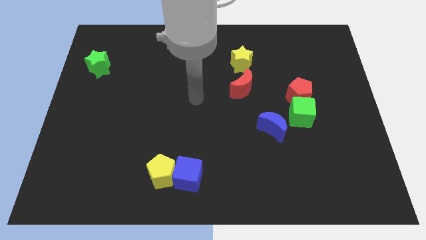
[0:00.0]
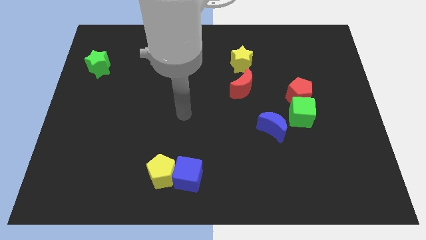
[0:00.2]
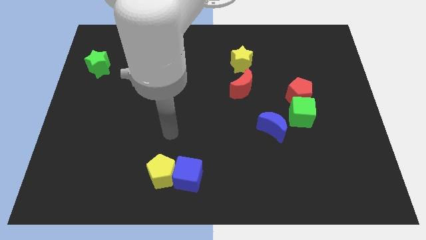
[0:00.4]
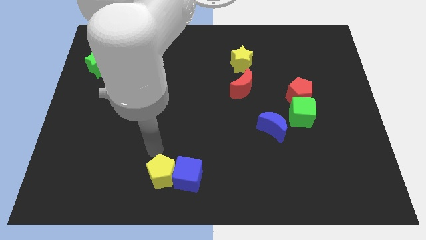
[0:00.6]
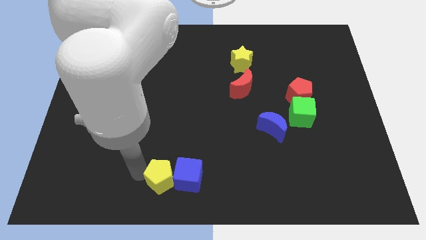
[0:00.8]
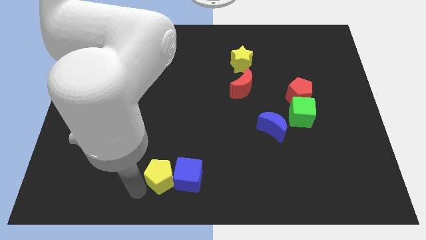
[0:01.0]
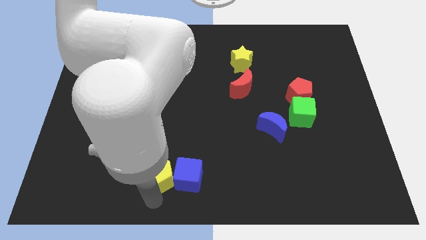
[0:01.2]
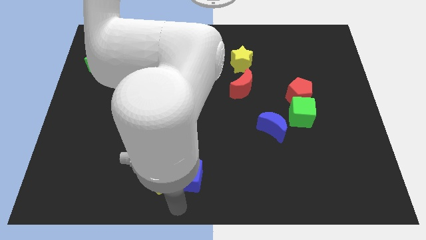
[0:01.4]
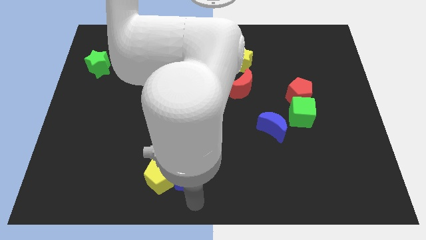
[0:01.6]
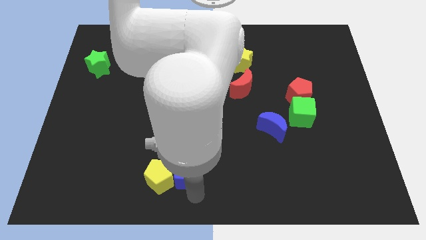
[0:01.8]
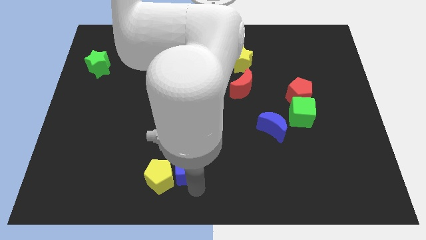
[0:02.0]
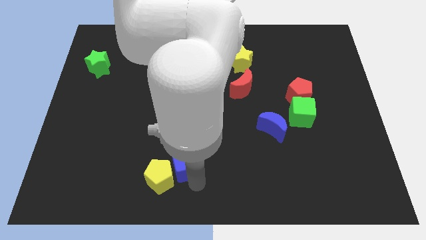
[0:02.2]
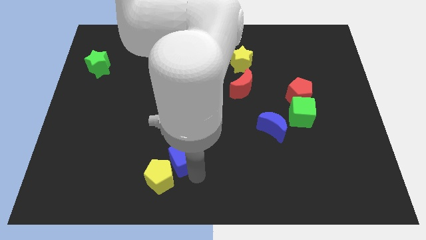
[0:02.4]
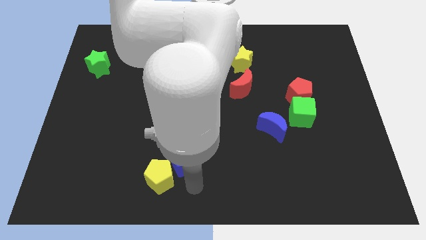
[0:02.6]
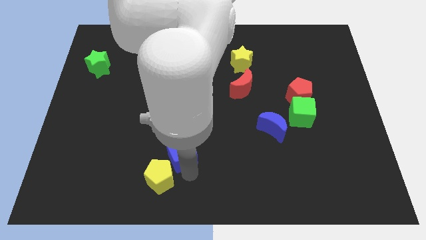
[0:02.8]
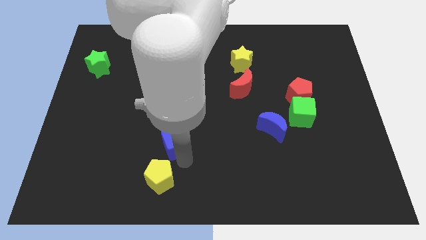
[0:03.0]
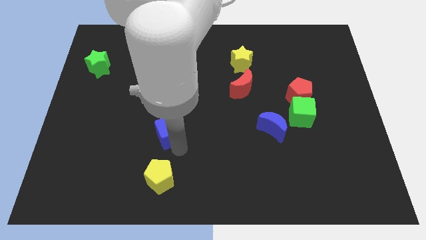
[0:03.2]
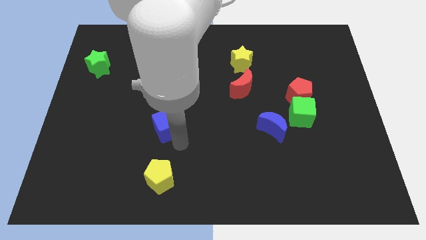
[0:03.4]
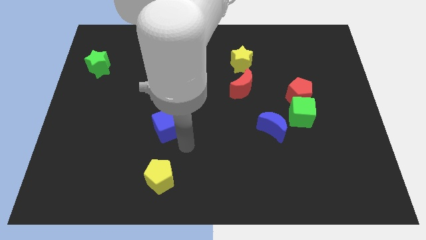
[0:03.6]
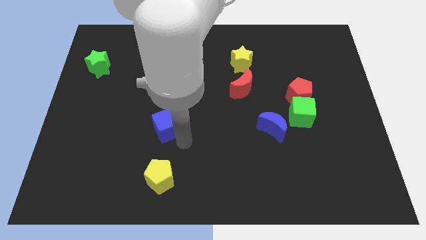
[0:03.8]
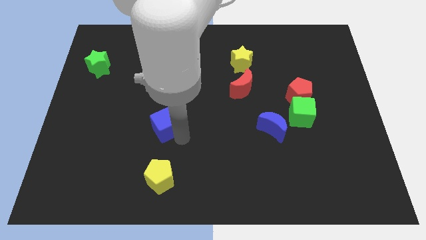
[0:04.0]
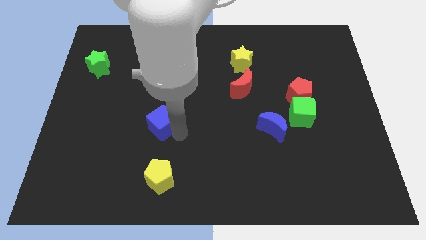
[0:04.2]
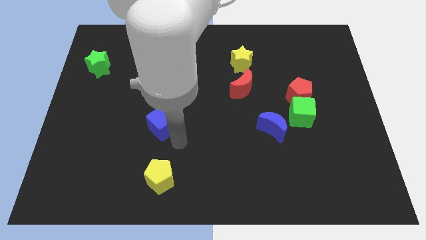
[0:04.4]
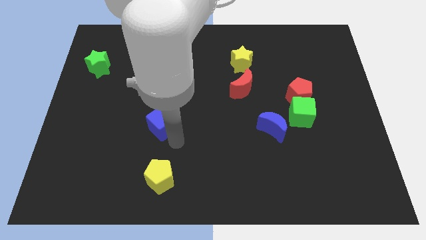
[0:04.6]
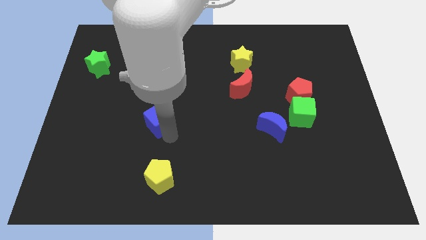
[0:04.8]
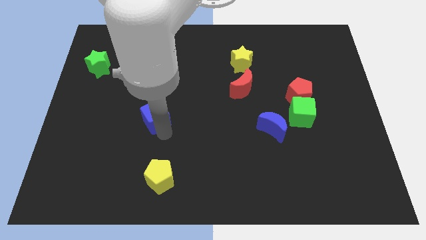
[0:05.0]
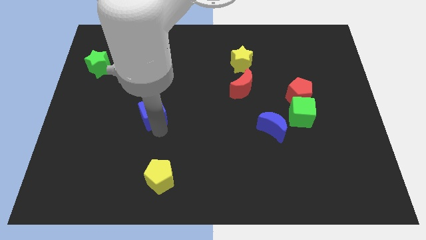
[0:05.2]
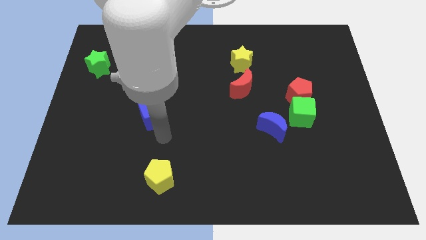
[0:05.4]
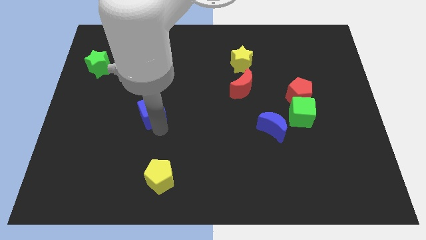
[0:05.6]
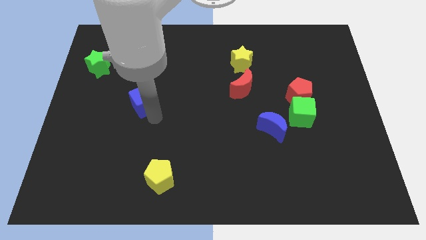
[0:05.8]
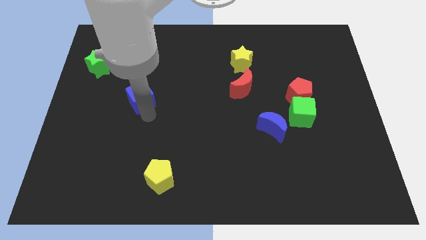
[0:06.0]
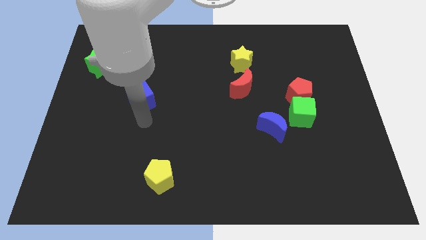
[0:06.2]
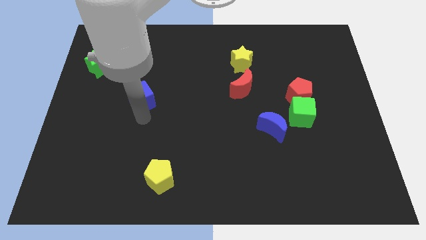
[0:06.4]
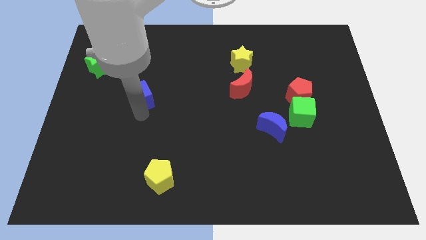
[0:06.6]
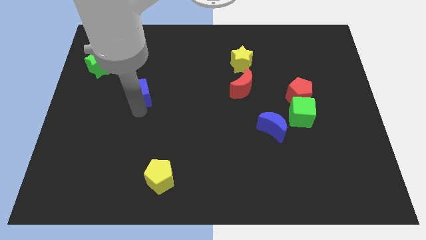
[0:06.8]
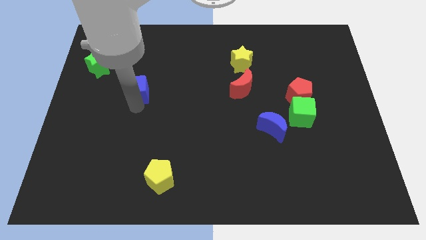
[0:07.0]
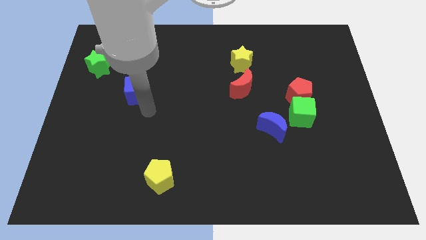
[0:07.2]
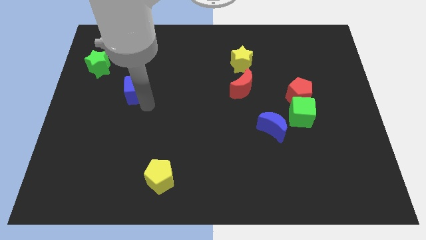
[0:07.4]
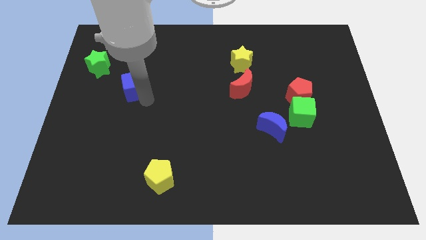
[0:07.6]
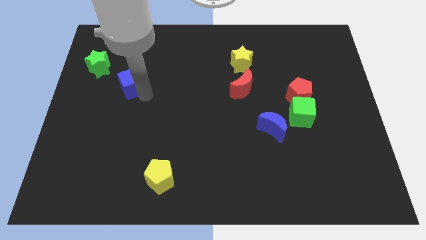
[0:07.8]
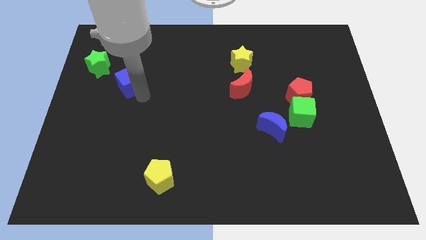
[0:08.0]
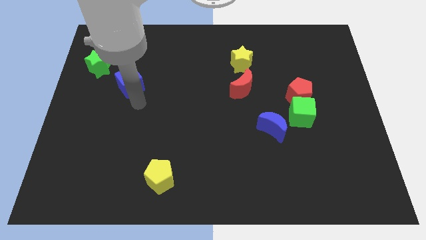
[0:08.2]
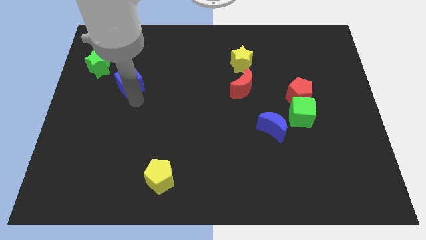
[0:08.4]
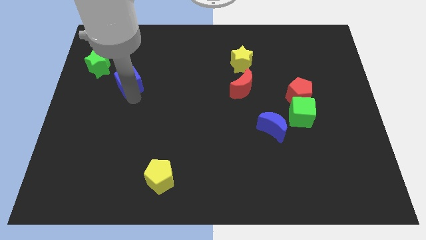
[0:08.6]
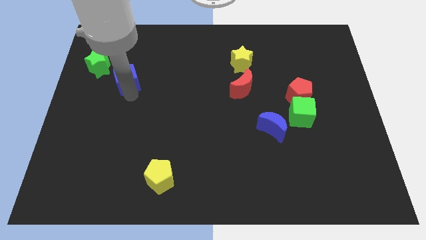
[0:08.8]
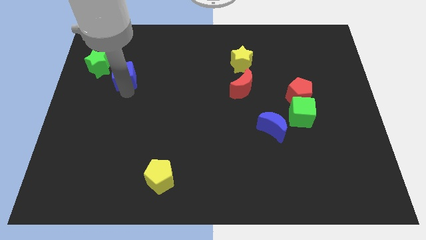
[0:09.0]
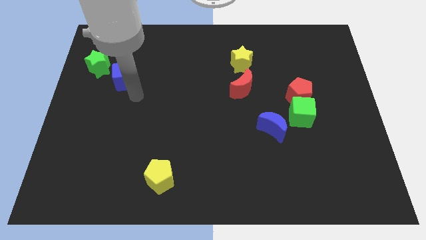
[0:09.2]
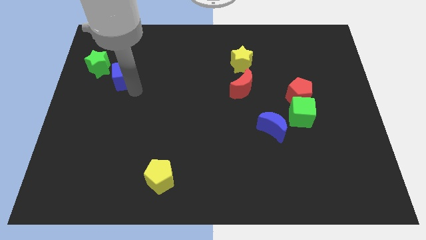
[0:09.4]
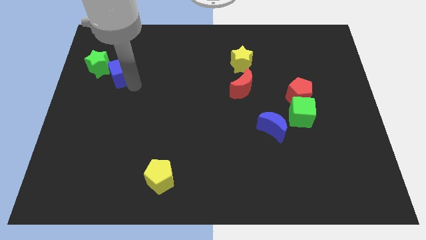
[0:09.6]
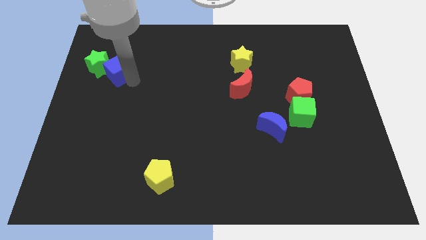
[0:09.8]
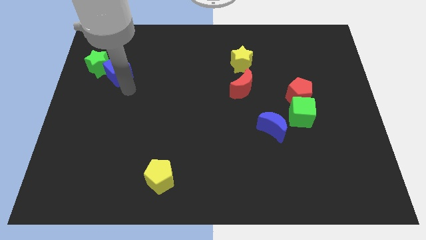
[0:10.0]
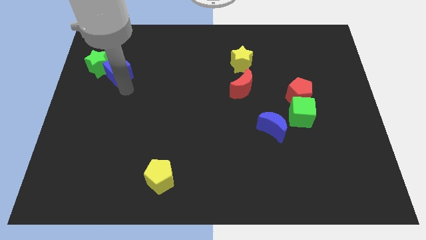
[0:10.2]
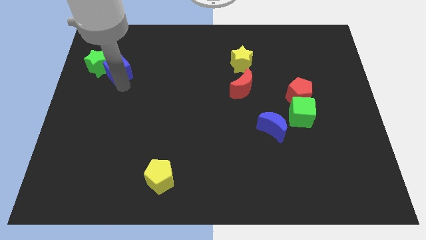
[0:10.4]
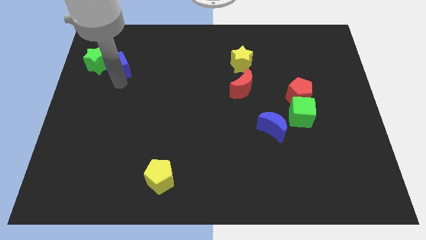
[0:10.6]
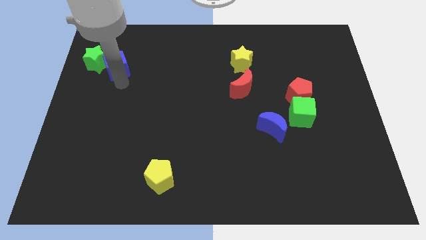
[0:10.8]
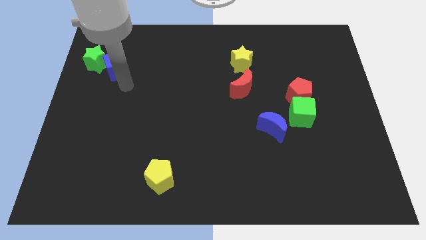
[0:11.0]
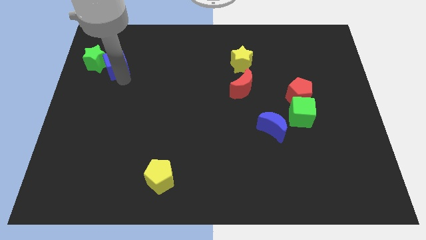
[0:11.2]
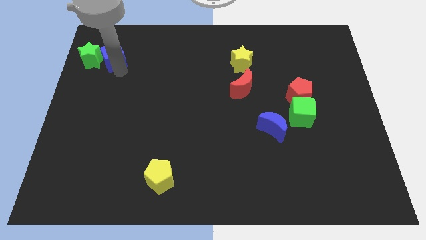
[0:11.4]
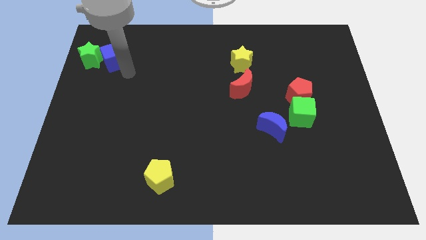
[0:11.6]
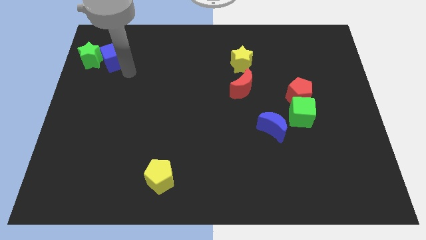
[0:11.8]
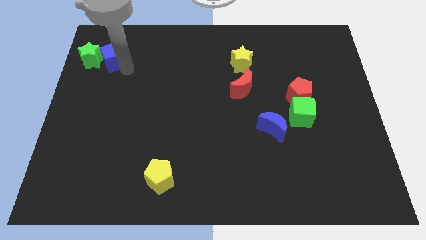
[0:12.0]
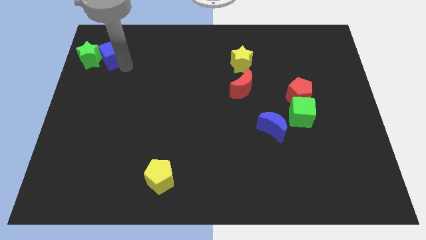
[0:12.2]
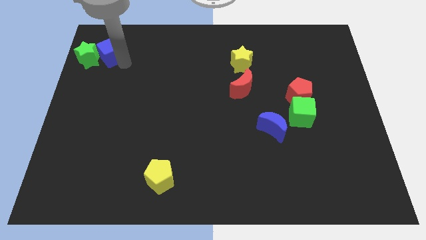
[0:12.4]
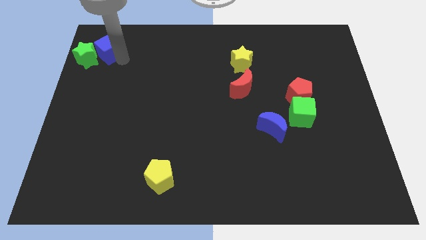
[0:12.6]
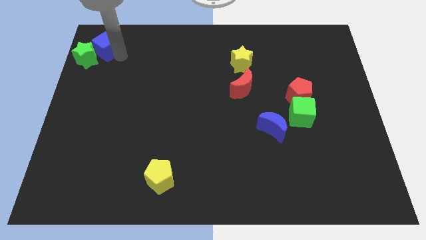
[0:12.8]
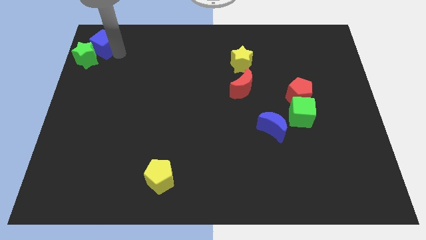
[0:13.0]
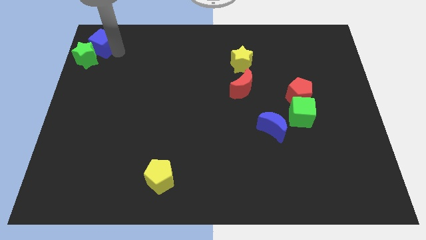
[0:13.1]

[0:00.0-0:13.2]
push the blue cube to the top left of the board

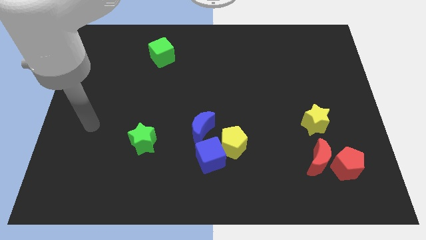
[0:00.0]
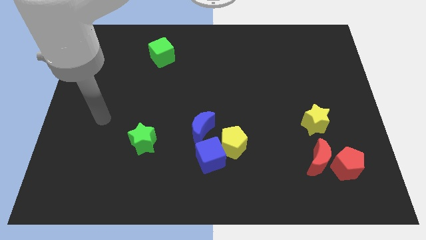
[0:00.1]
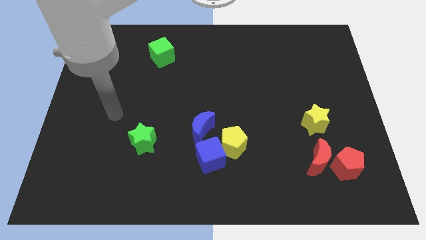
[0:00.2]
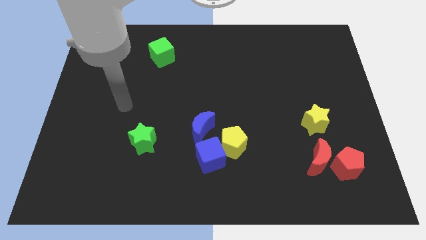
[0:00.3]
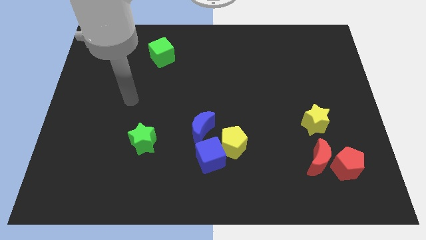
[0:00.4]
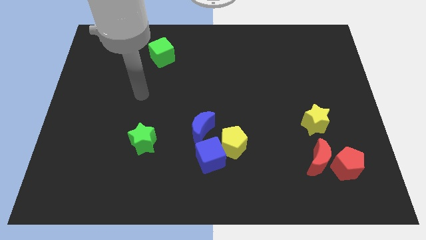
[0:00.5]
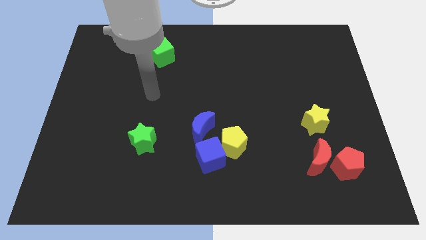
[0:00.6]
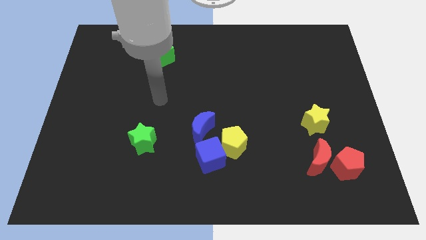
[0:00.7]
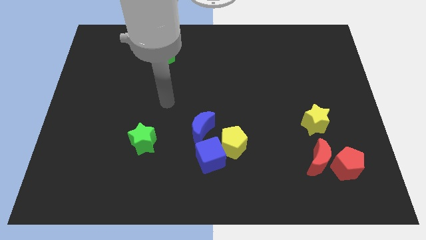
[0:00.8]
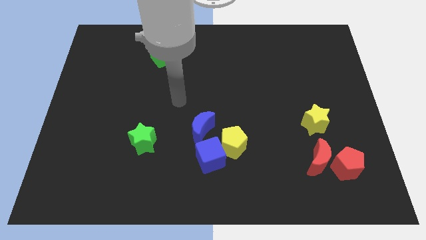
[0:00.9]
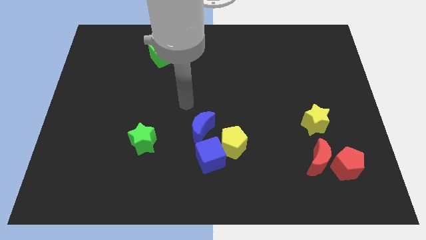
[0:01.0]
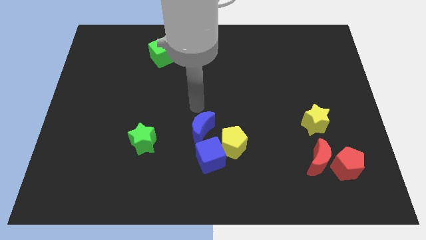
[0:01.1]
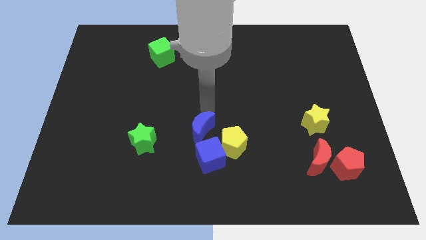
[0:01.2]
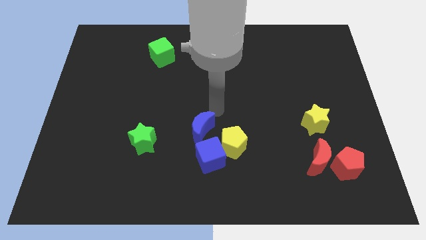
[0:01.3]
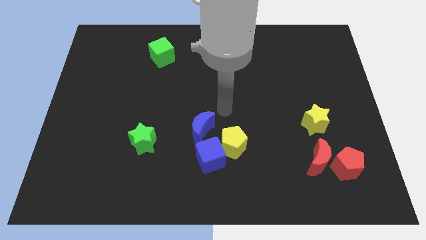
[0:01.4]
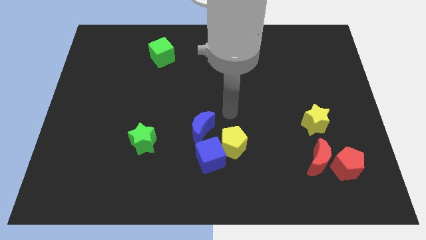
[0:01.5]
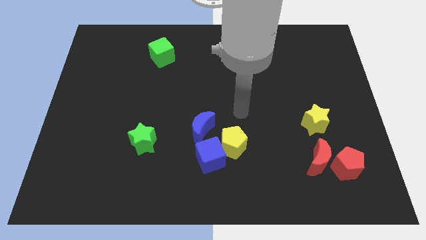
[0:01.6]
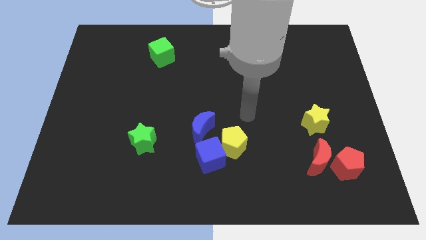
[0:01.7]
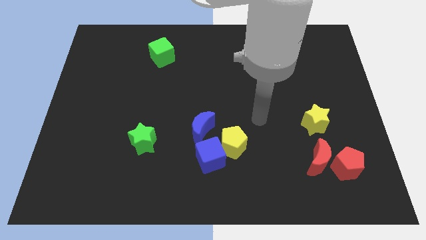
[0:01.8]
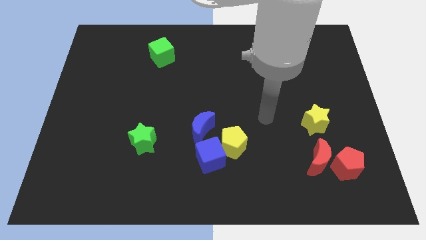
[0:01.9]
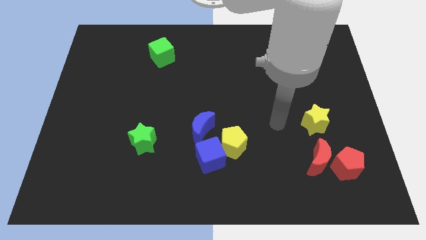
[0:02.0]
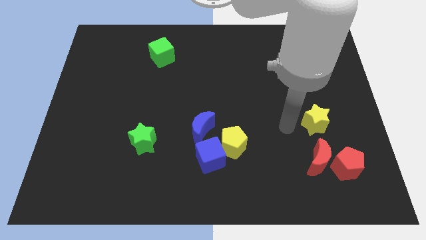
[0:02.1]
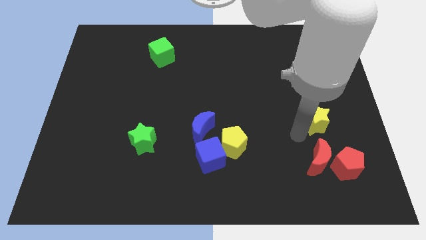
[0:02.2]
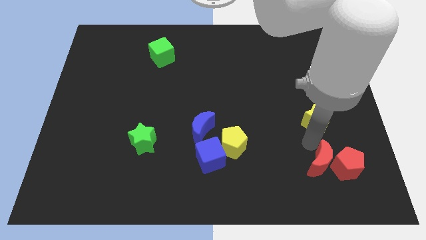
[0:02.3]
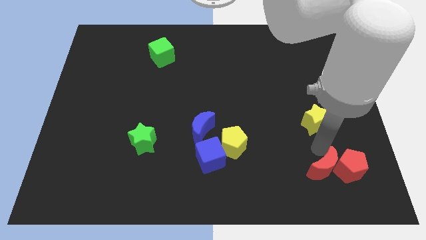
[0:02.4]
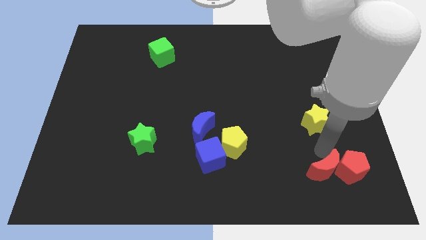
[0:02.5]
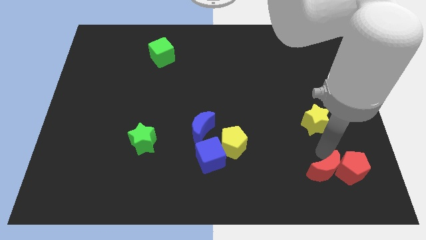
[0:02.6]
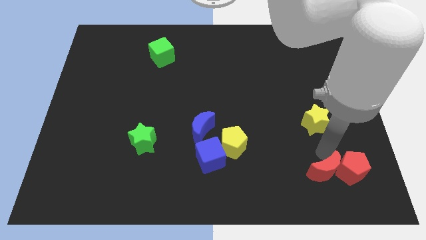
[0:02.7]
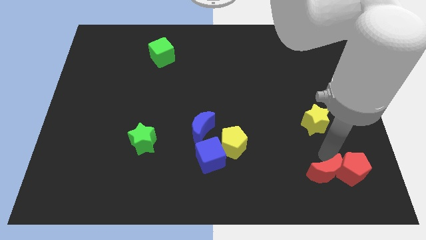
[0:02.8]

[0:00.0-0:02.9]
slide the red pentagon to the bottom right
